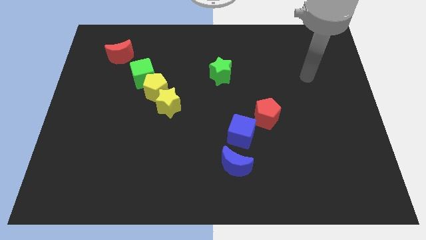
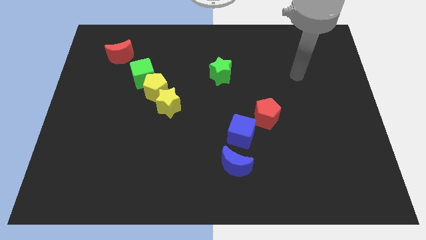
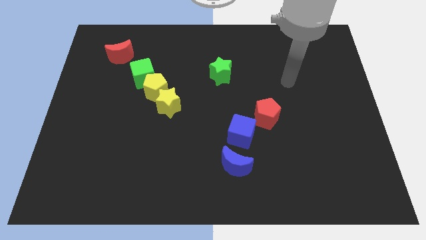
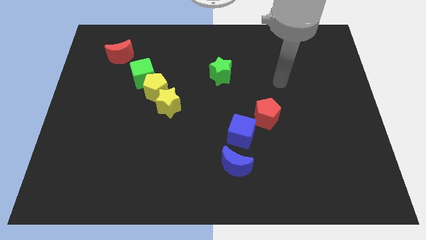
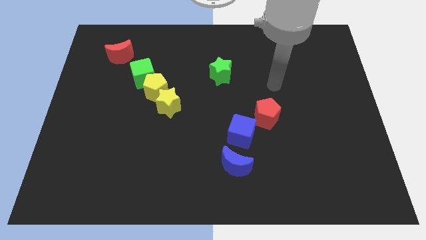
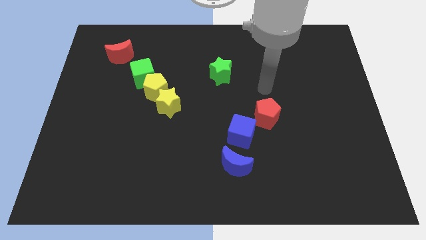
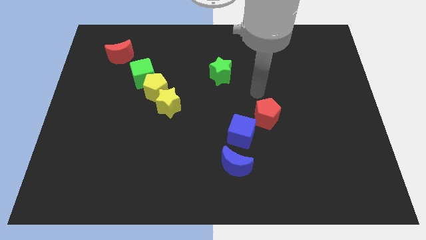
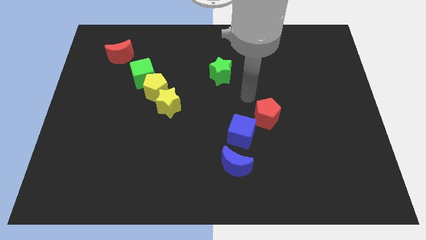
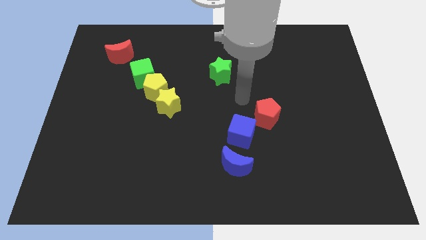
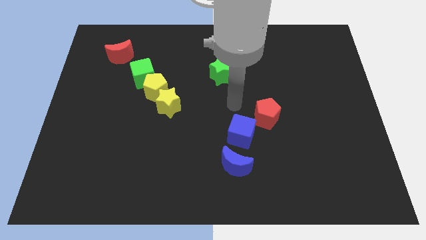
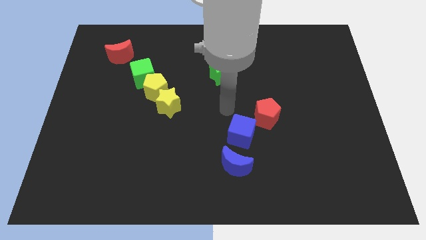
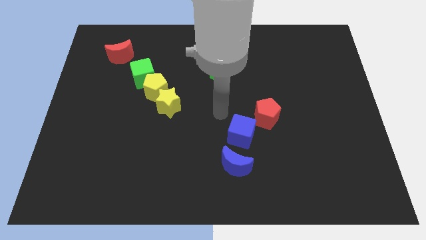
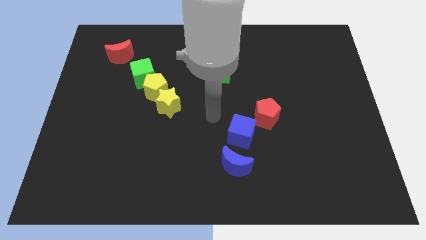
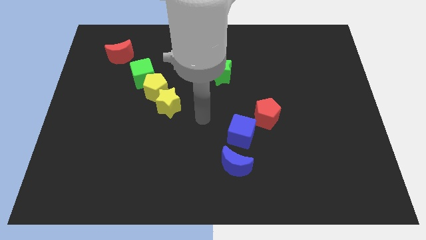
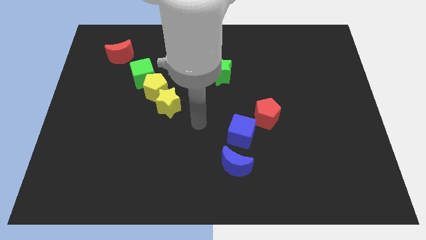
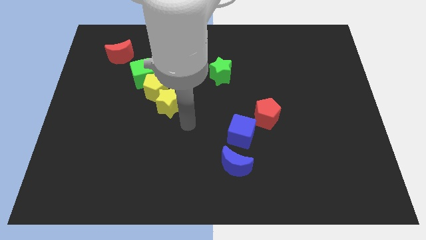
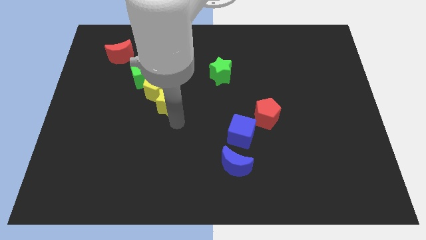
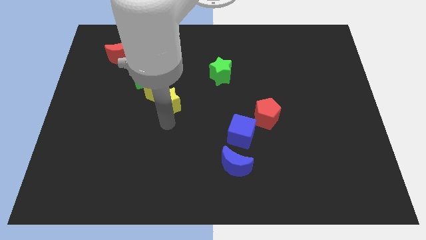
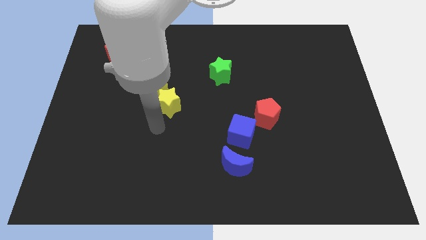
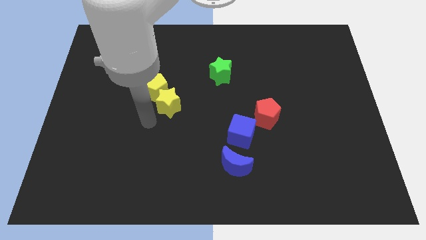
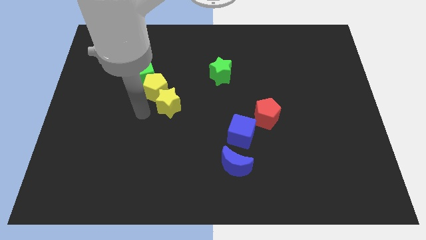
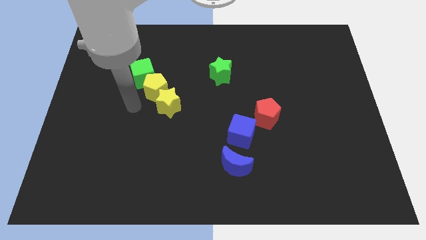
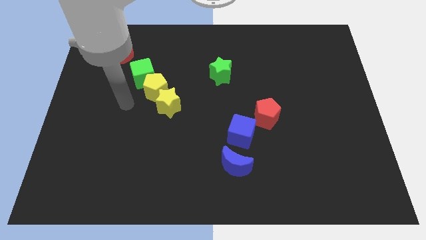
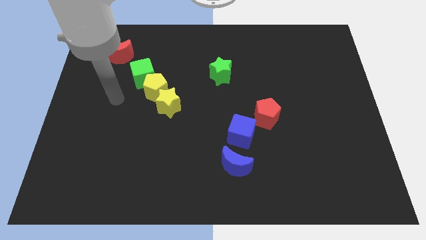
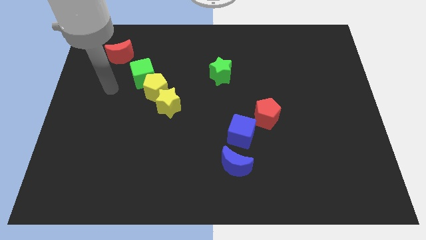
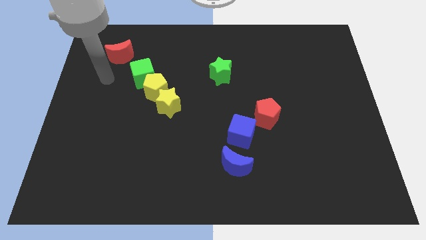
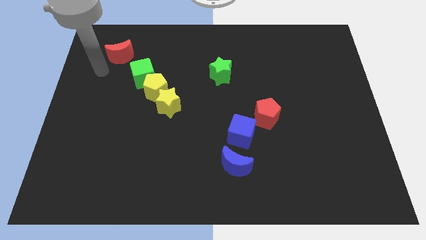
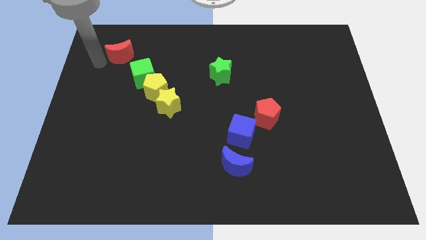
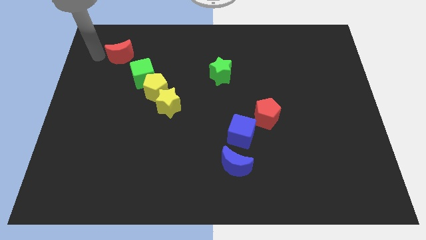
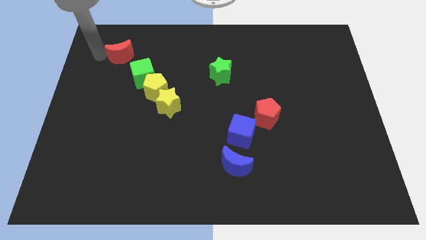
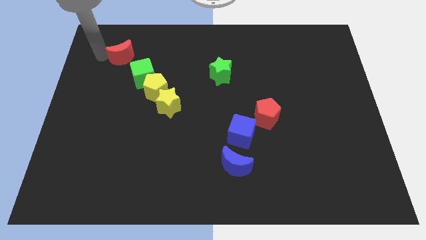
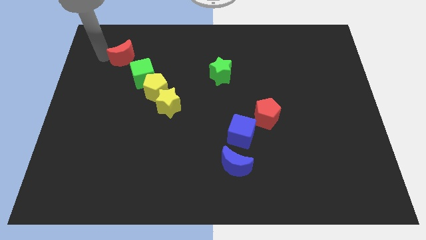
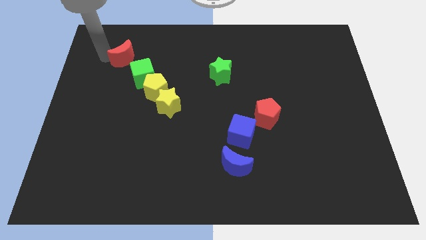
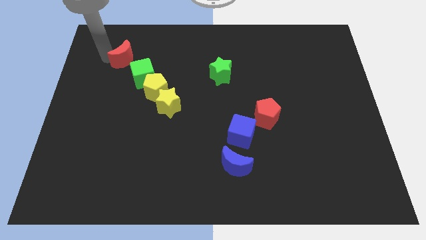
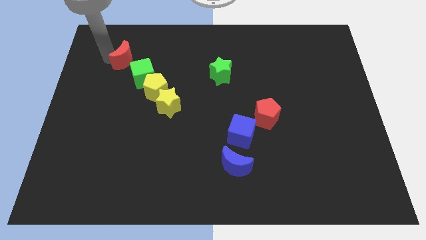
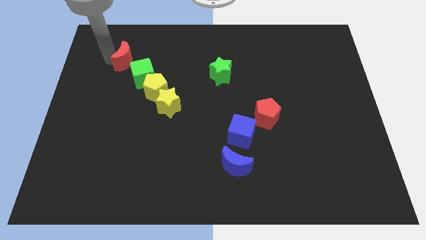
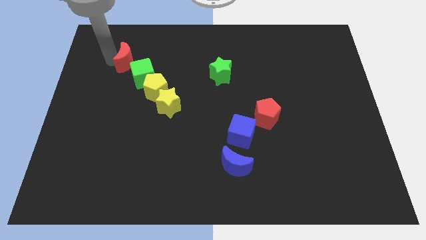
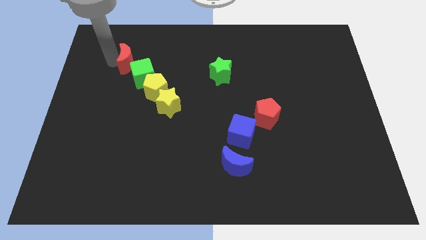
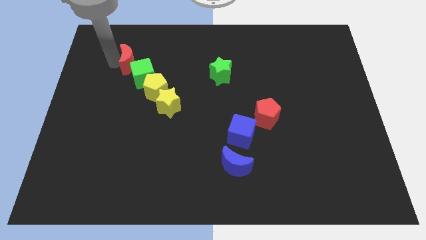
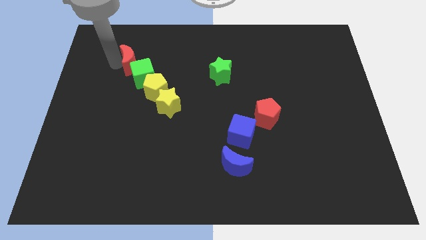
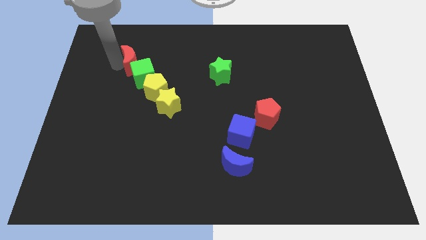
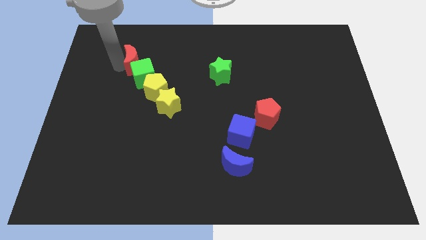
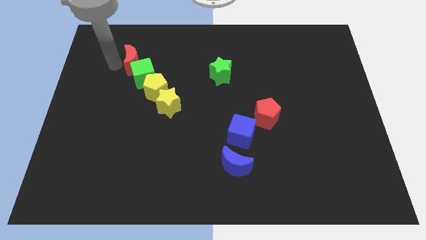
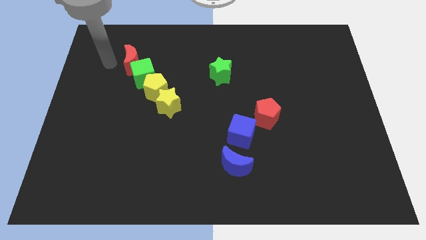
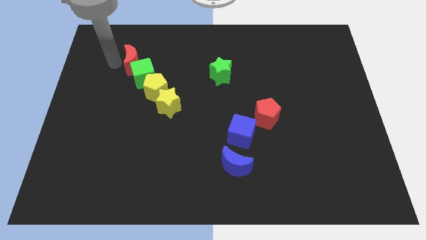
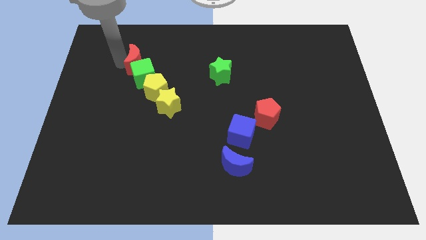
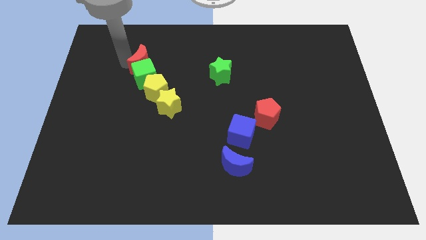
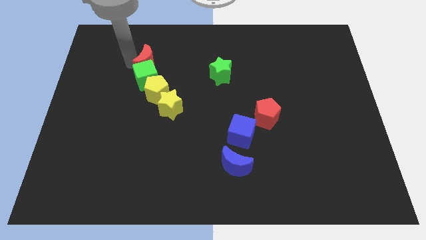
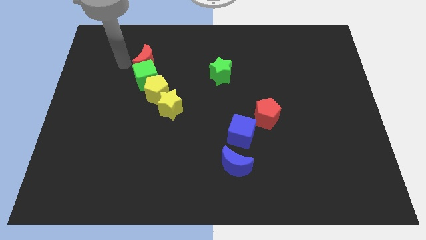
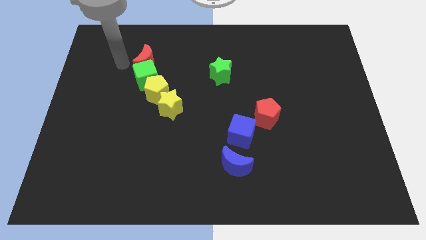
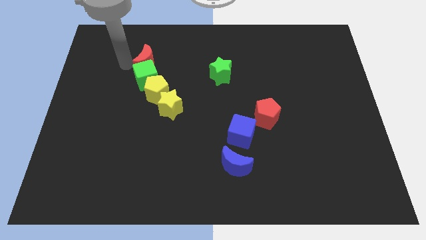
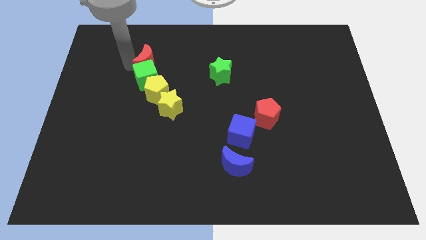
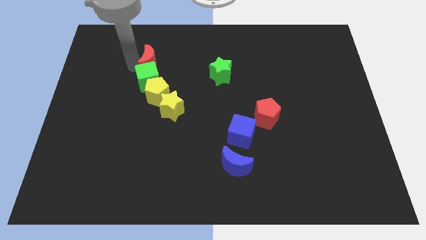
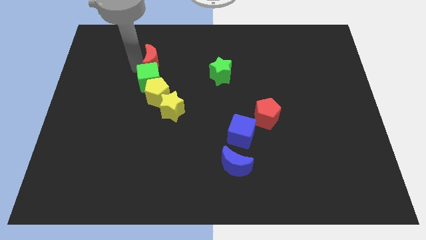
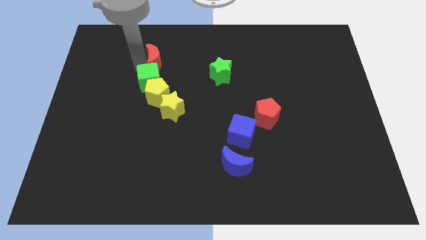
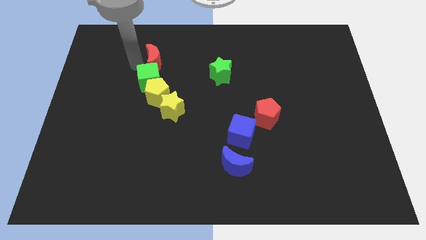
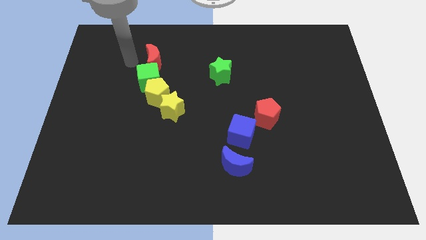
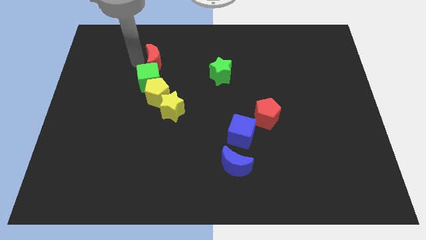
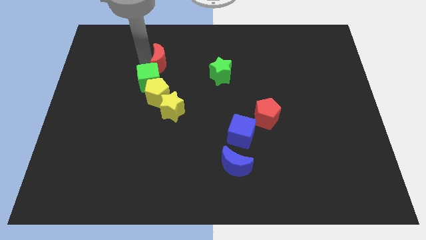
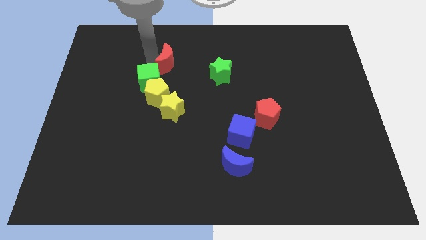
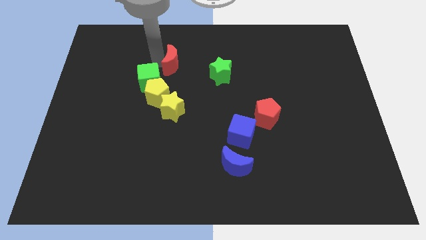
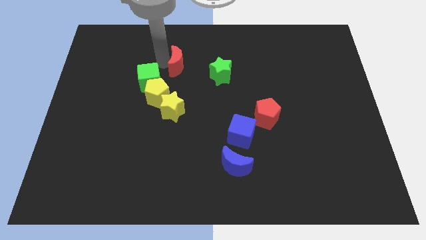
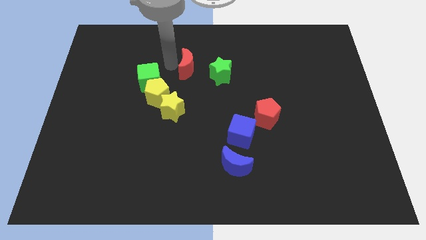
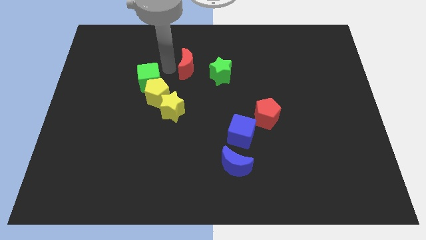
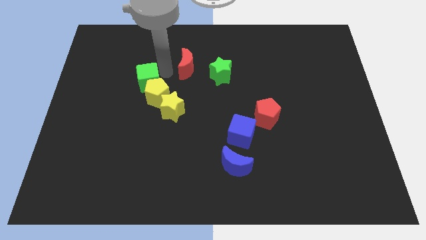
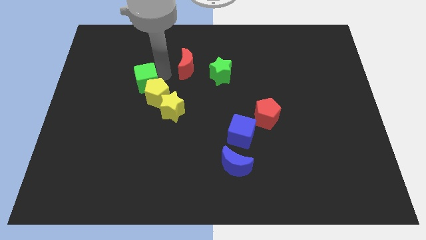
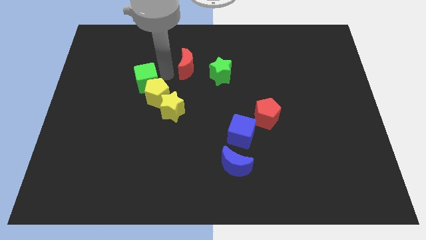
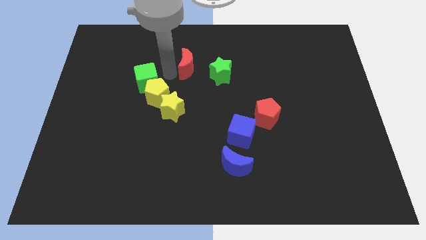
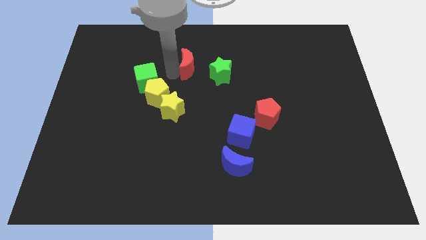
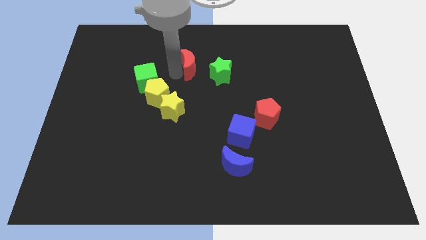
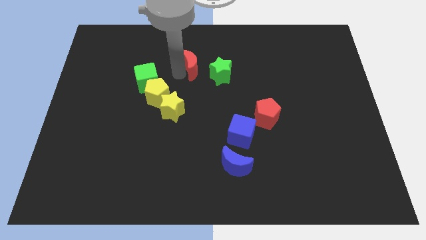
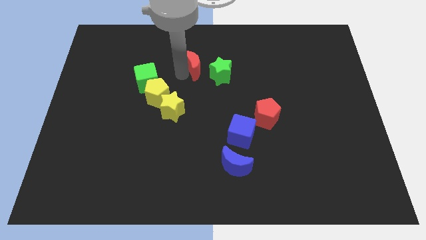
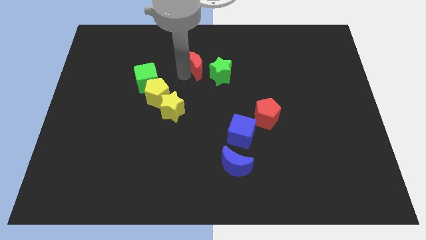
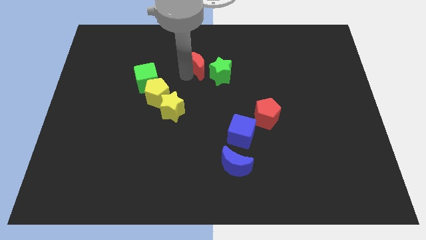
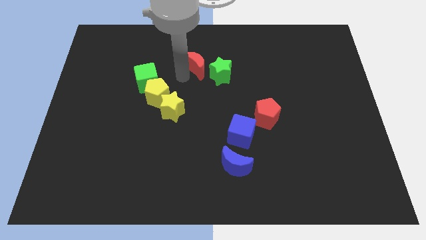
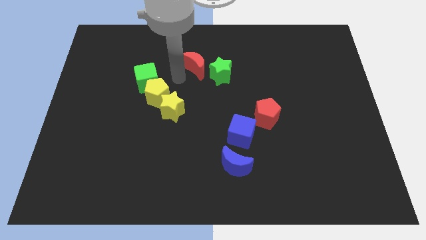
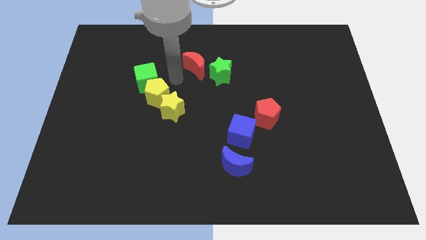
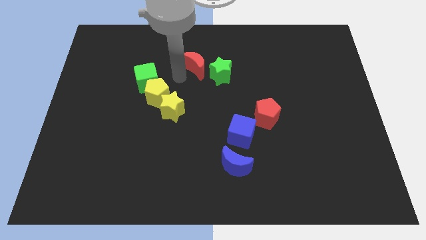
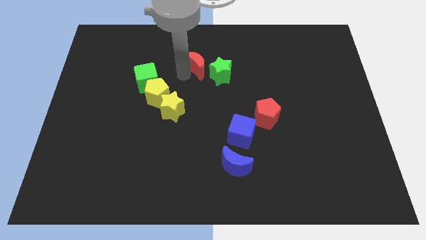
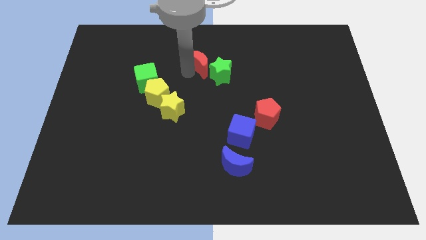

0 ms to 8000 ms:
move the red moon right

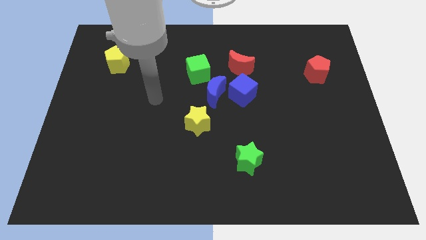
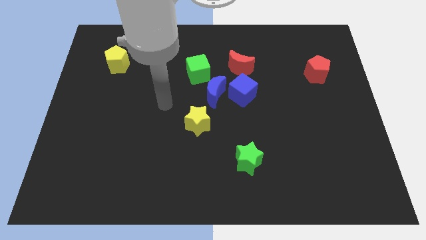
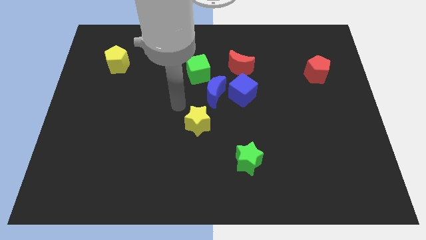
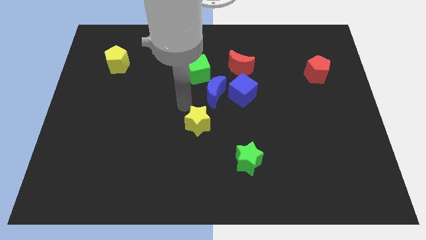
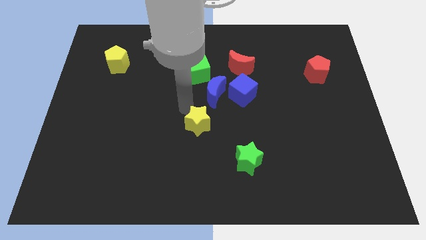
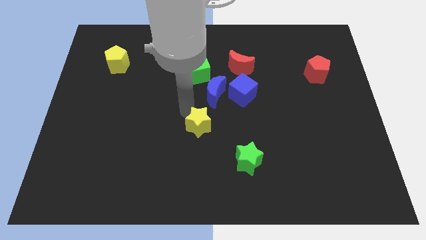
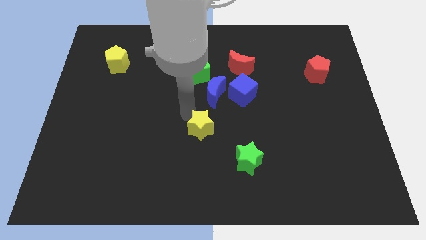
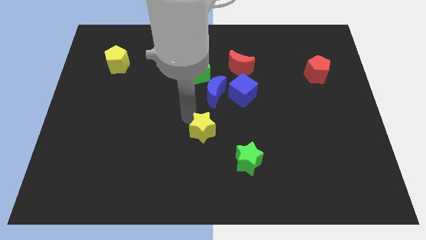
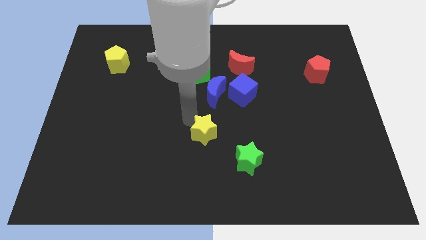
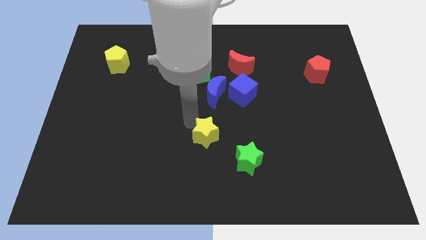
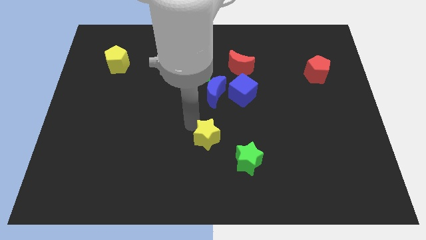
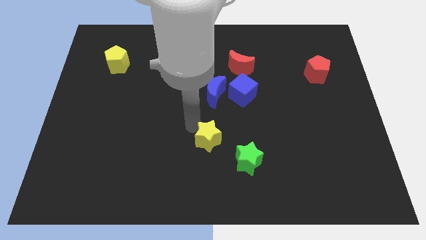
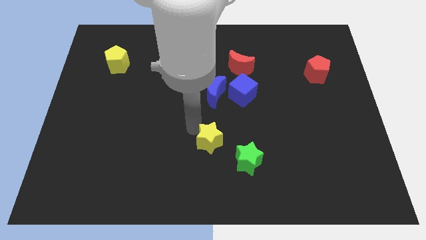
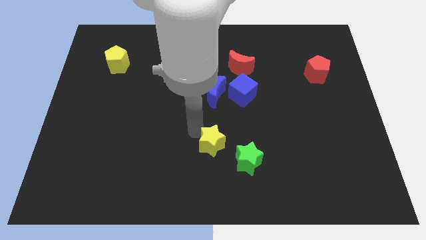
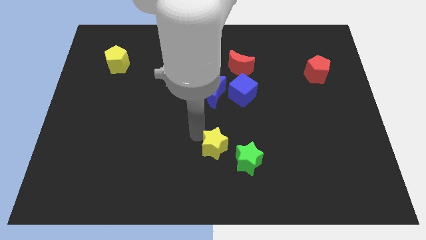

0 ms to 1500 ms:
push the yellow star down and then to the right slightly
